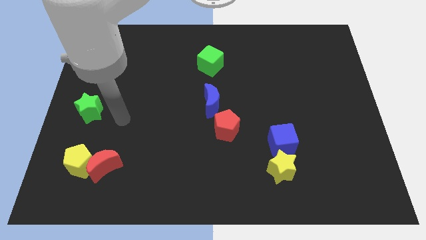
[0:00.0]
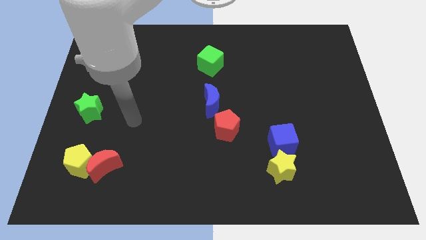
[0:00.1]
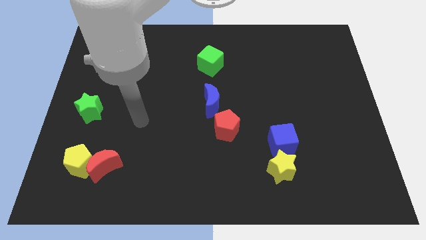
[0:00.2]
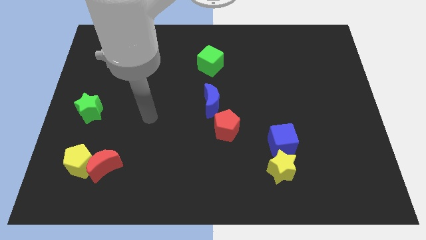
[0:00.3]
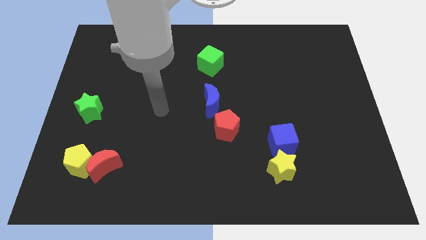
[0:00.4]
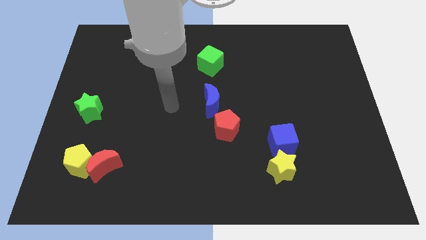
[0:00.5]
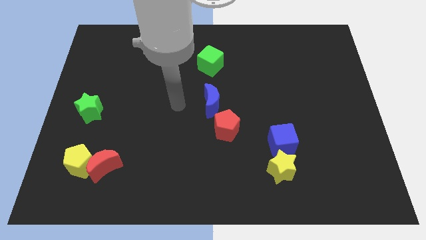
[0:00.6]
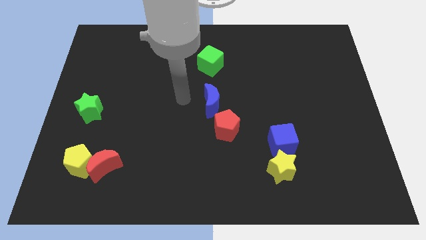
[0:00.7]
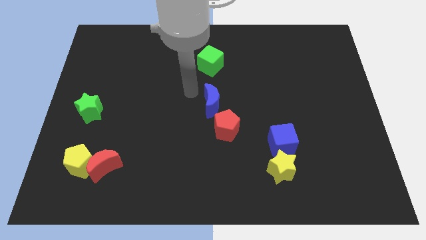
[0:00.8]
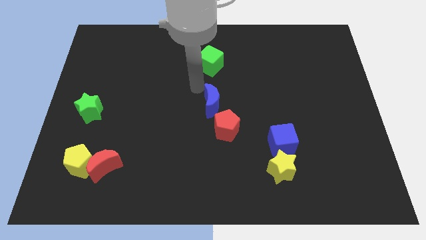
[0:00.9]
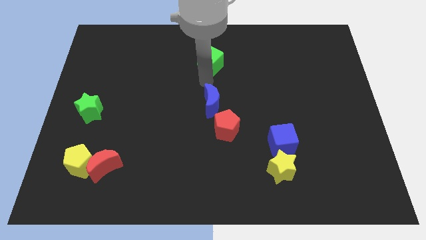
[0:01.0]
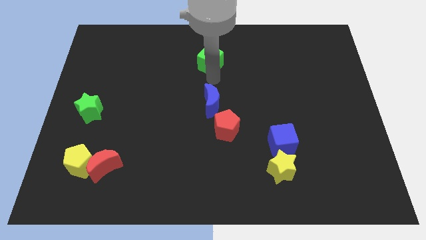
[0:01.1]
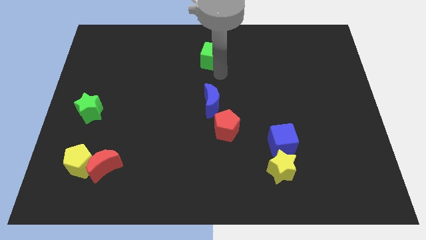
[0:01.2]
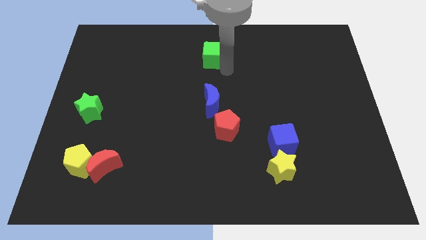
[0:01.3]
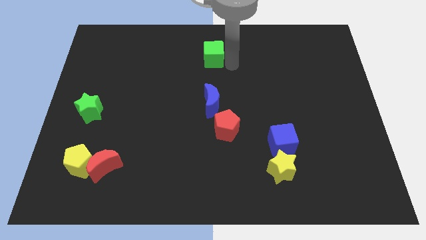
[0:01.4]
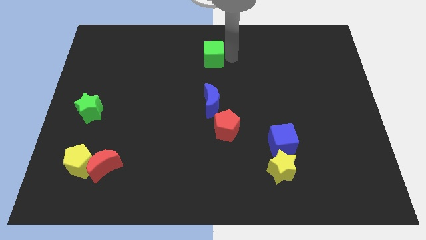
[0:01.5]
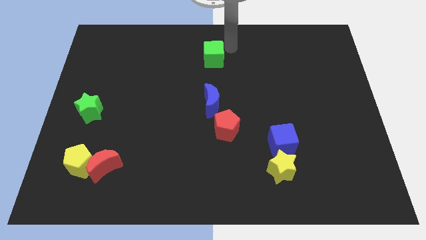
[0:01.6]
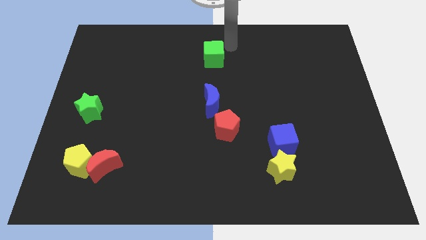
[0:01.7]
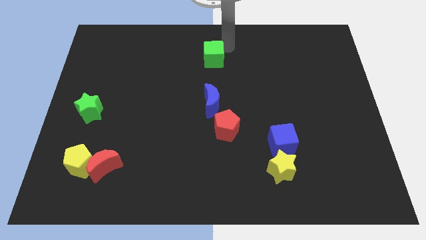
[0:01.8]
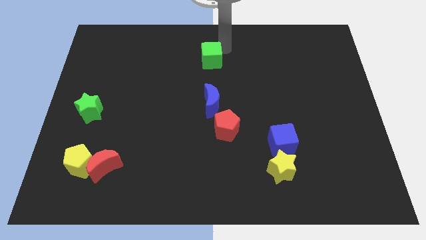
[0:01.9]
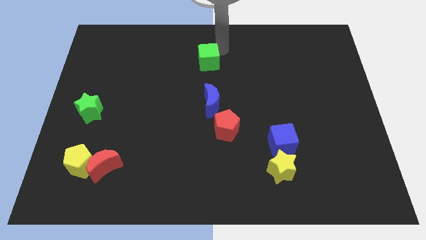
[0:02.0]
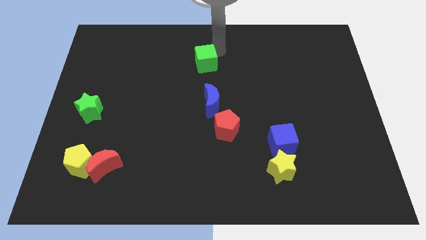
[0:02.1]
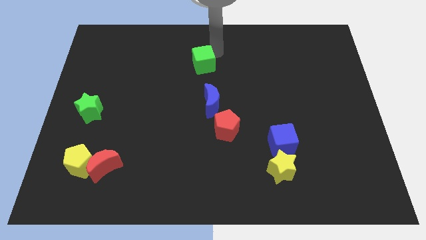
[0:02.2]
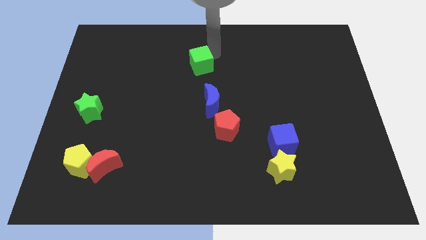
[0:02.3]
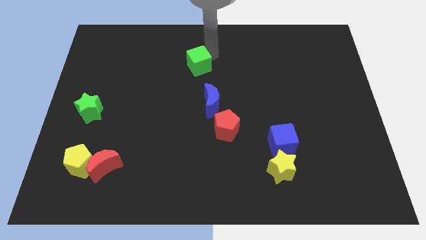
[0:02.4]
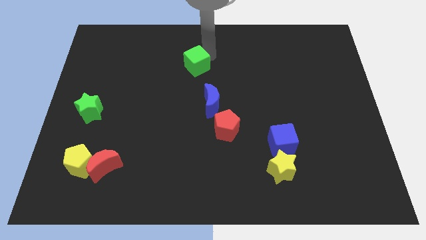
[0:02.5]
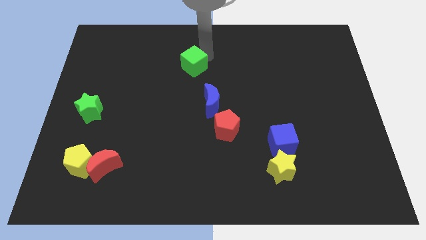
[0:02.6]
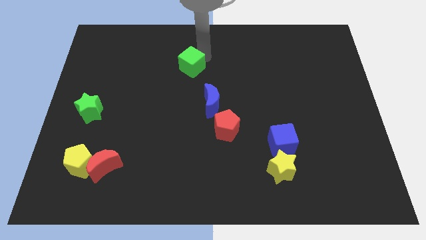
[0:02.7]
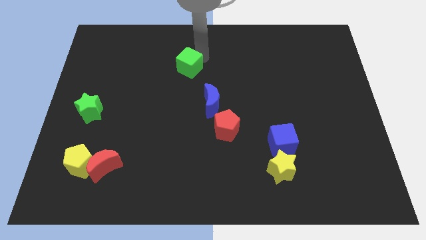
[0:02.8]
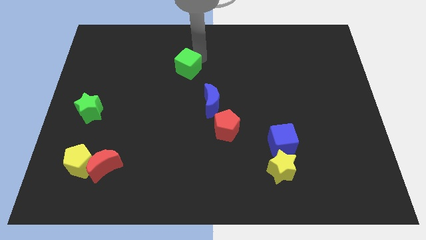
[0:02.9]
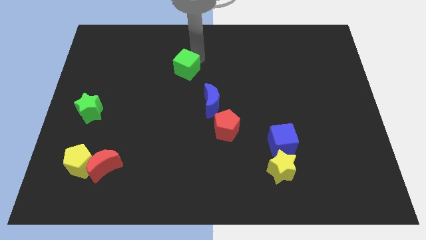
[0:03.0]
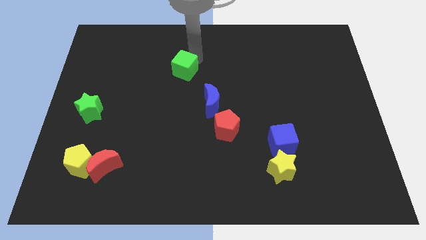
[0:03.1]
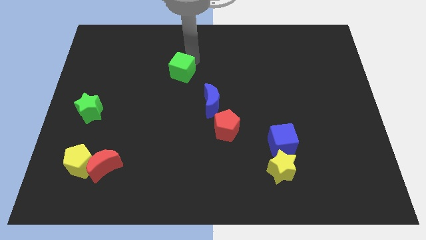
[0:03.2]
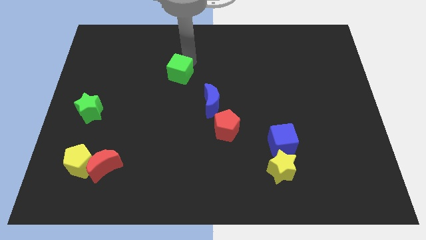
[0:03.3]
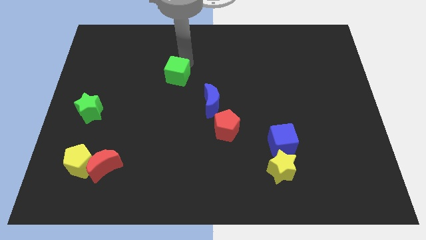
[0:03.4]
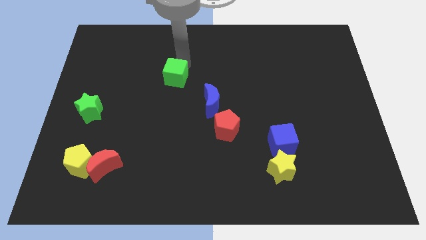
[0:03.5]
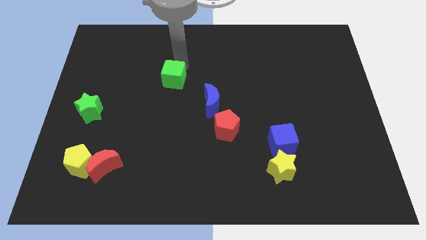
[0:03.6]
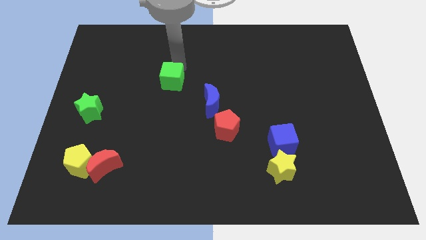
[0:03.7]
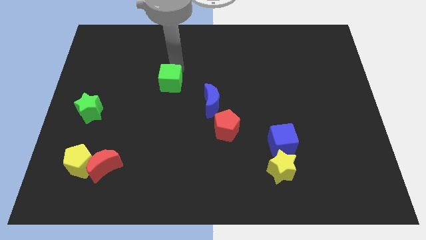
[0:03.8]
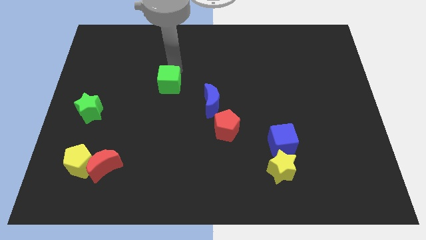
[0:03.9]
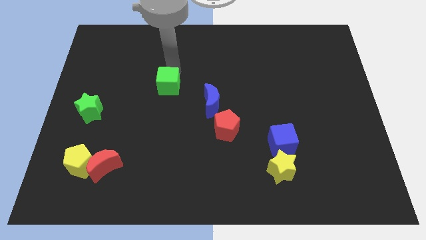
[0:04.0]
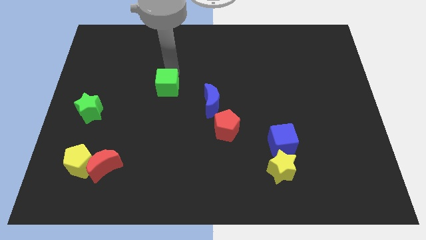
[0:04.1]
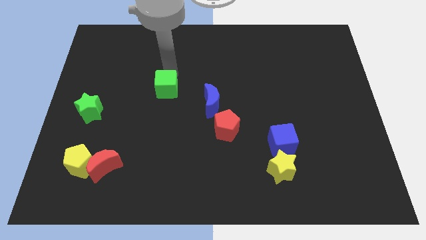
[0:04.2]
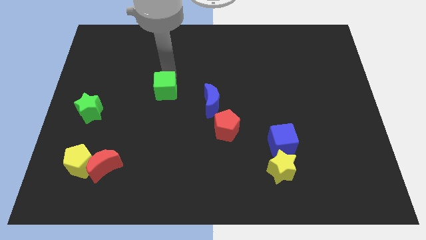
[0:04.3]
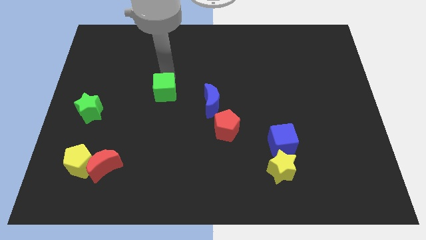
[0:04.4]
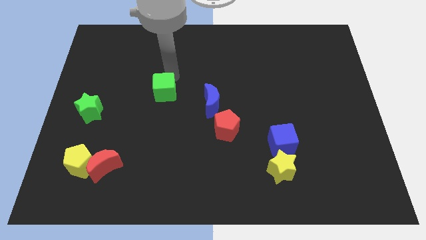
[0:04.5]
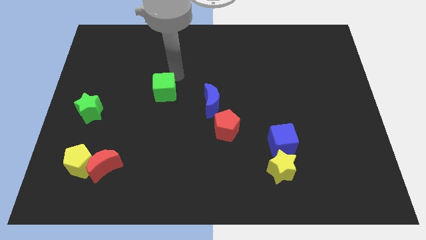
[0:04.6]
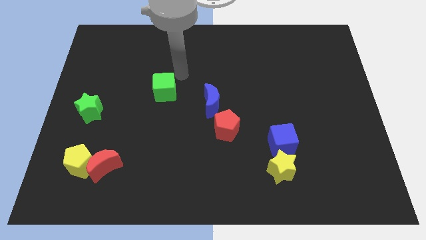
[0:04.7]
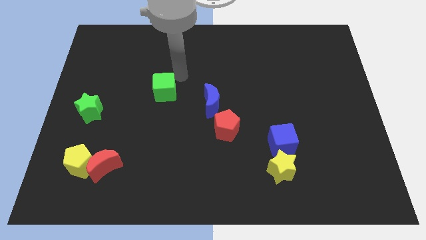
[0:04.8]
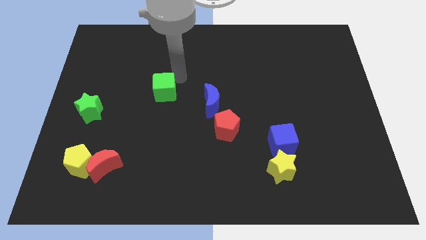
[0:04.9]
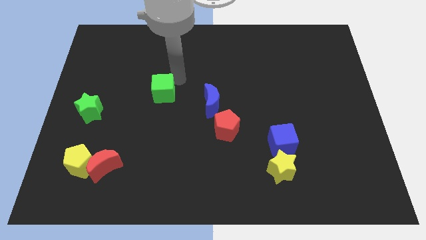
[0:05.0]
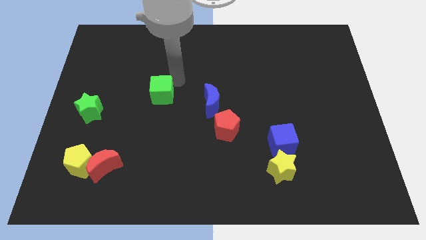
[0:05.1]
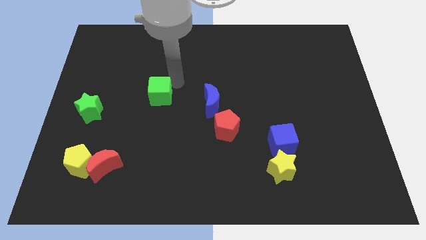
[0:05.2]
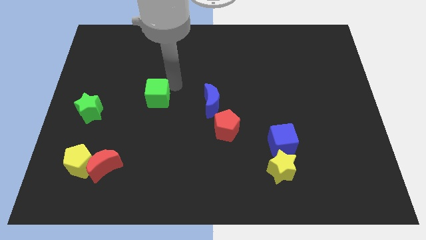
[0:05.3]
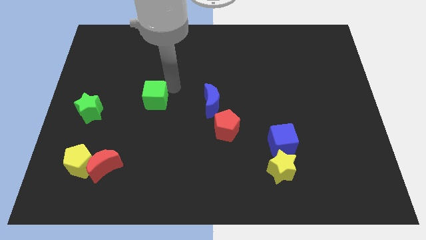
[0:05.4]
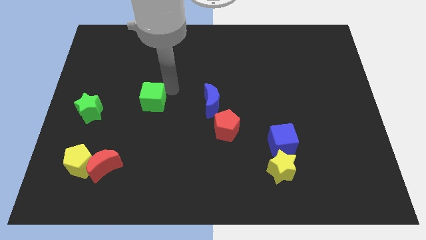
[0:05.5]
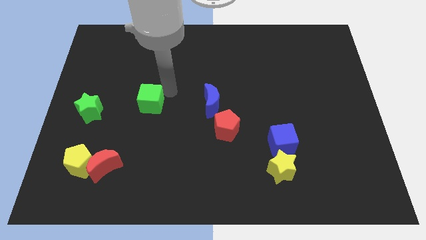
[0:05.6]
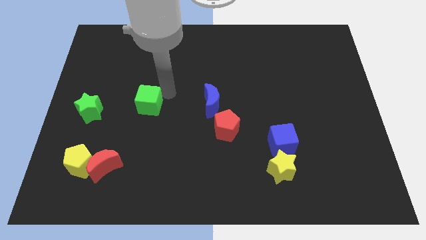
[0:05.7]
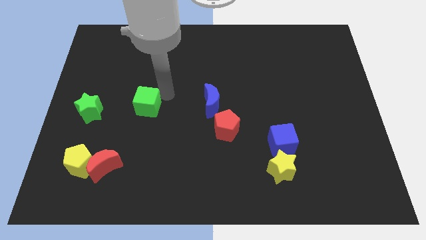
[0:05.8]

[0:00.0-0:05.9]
slide the green cube down and to the left

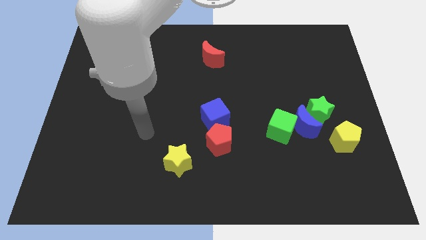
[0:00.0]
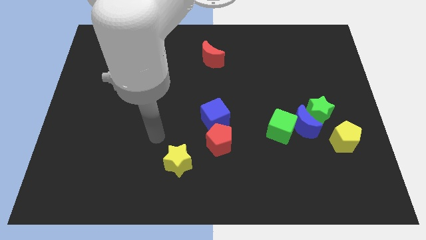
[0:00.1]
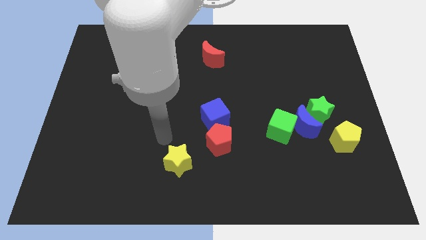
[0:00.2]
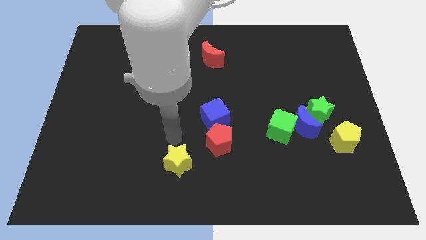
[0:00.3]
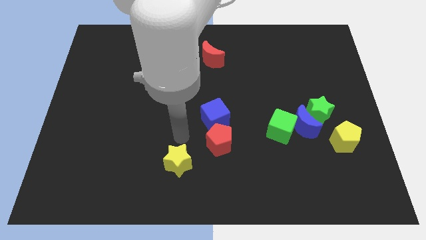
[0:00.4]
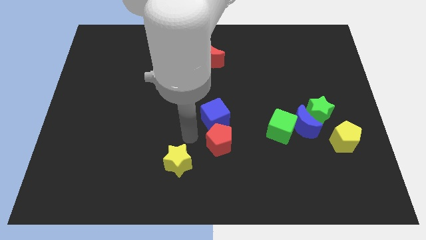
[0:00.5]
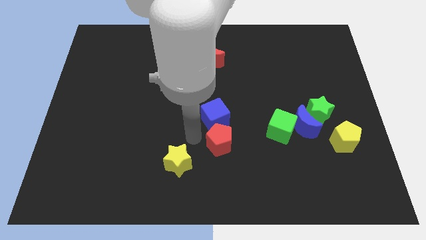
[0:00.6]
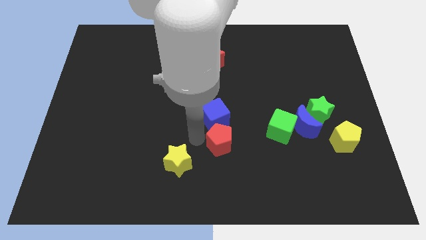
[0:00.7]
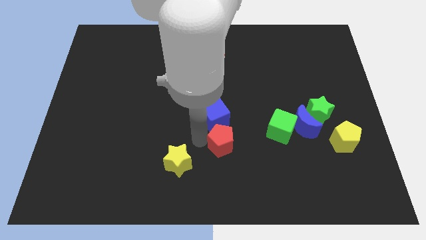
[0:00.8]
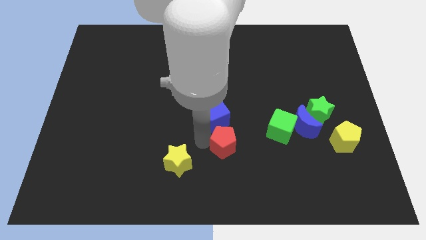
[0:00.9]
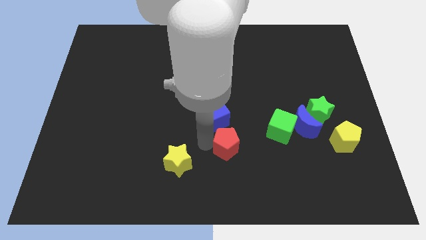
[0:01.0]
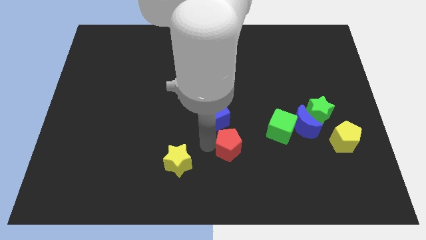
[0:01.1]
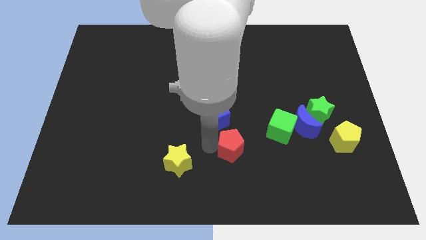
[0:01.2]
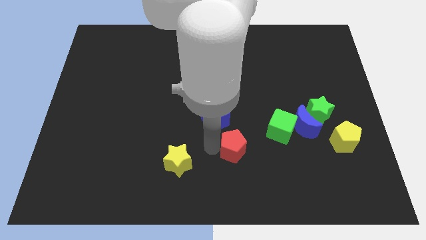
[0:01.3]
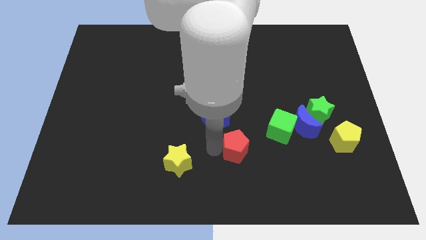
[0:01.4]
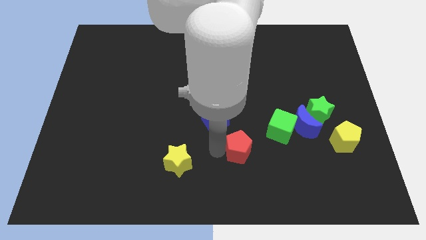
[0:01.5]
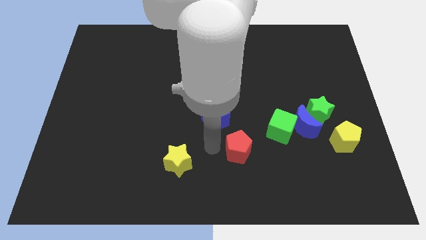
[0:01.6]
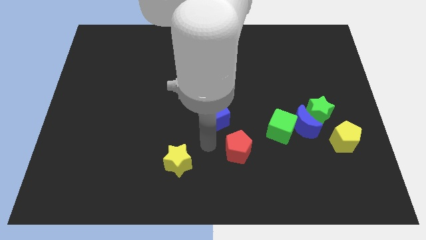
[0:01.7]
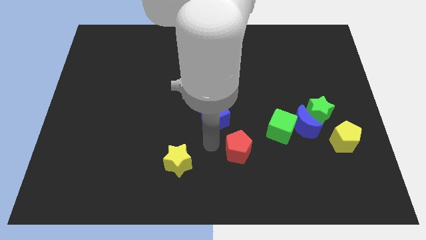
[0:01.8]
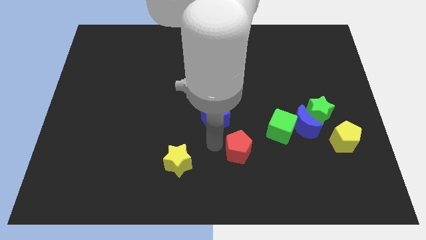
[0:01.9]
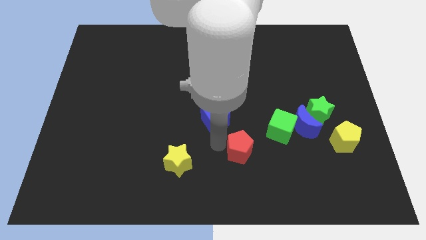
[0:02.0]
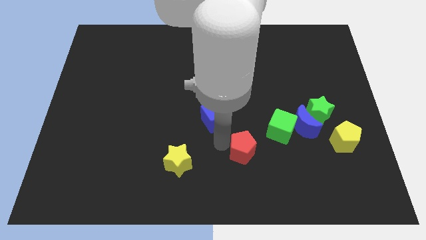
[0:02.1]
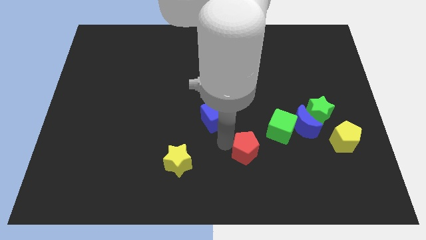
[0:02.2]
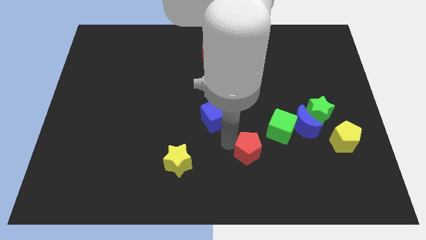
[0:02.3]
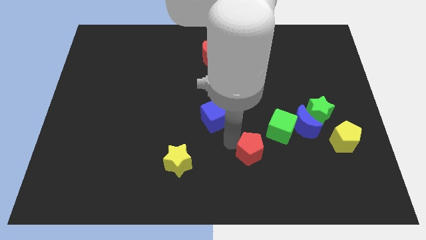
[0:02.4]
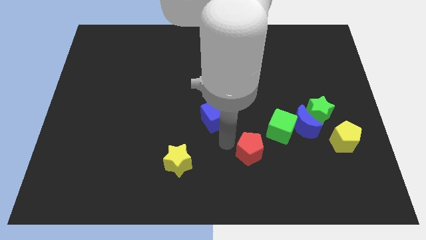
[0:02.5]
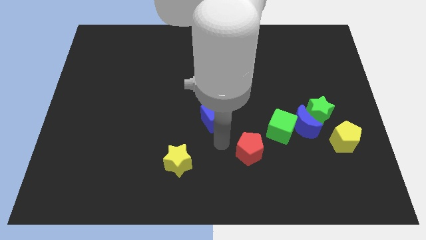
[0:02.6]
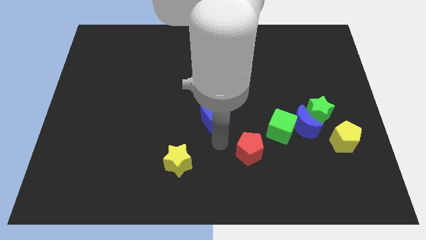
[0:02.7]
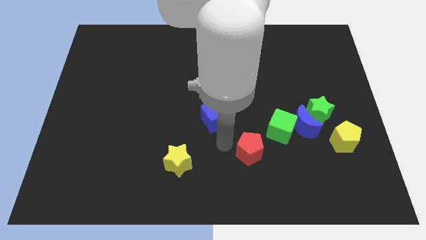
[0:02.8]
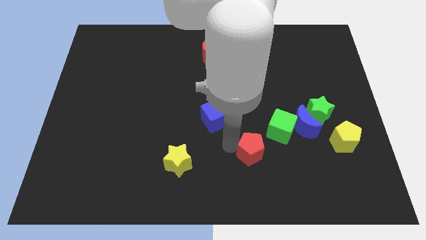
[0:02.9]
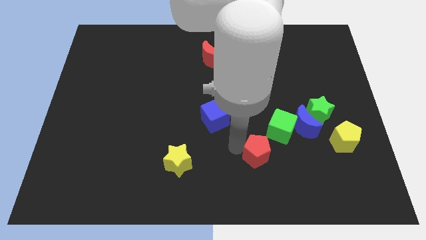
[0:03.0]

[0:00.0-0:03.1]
move the red pentagon to the right slightly
